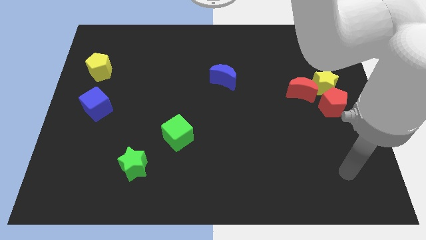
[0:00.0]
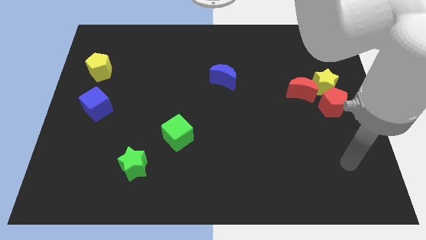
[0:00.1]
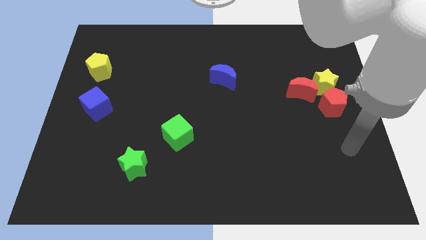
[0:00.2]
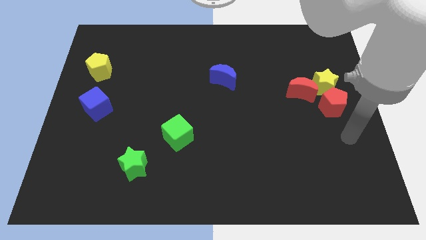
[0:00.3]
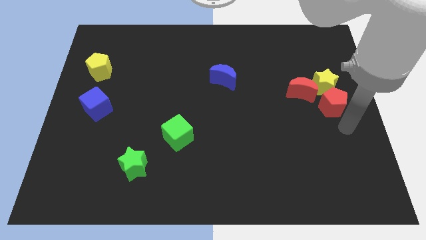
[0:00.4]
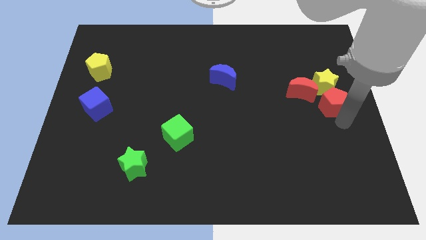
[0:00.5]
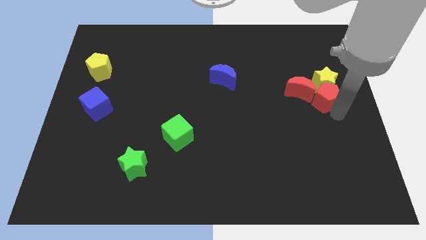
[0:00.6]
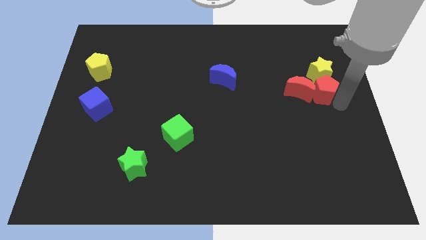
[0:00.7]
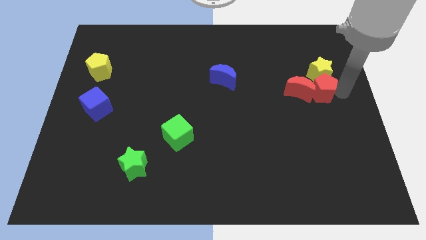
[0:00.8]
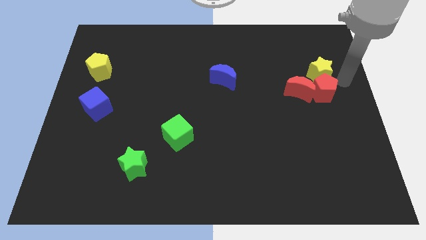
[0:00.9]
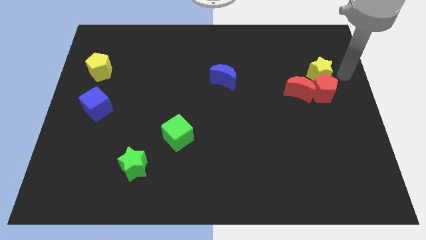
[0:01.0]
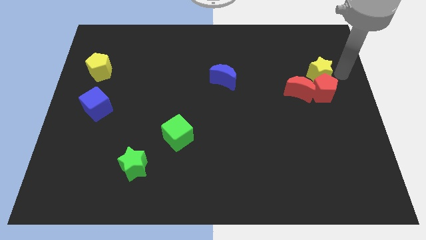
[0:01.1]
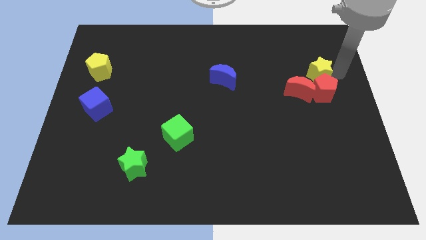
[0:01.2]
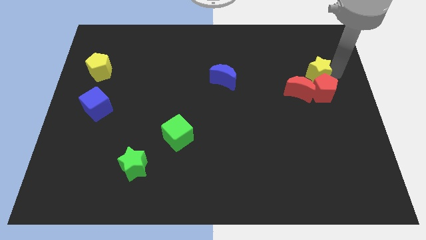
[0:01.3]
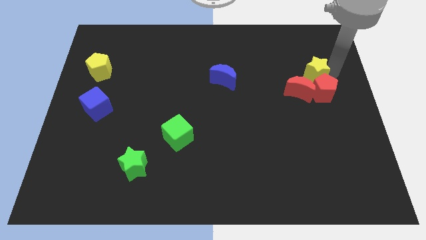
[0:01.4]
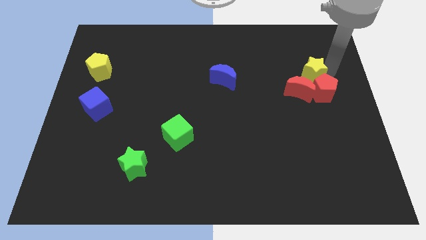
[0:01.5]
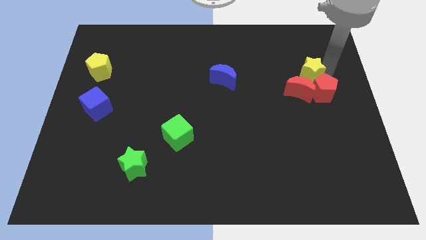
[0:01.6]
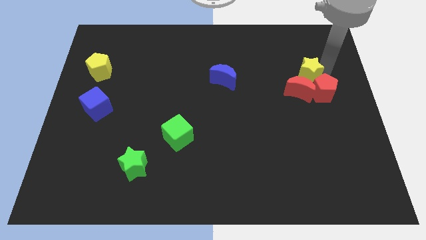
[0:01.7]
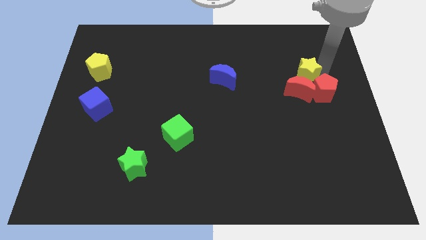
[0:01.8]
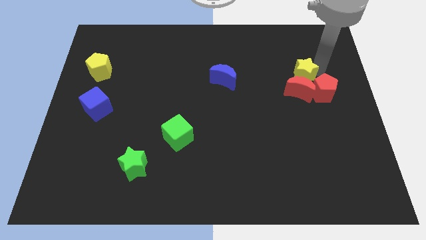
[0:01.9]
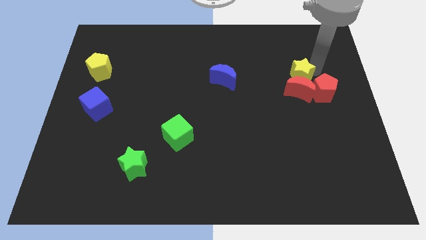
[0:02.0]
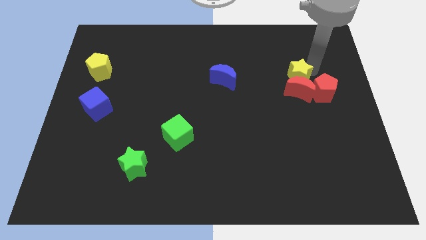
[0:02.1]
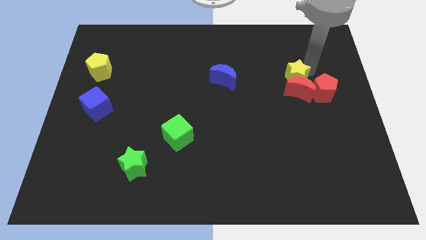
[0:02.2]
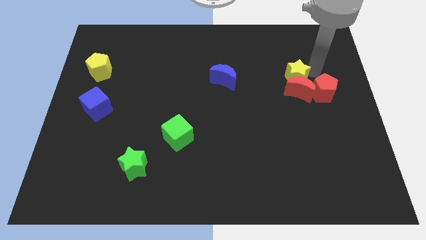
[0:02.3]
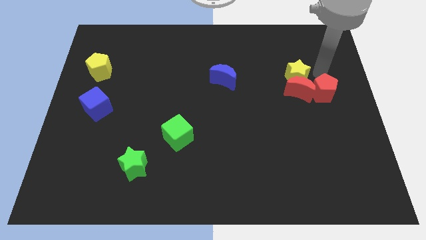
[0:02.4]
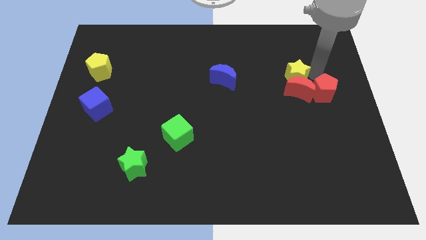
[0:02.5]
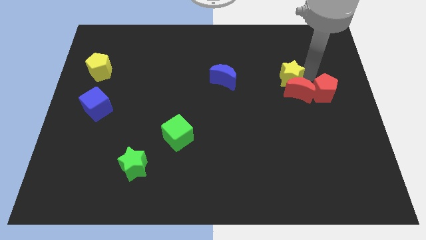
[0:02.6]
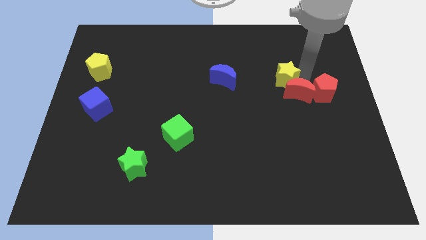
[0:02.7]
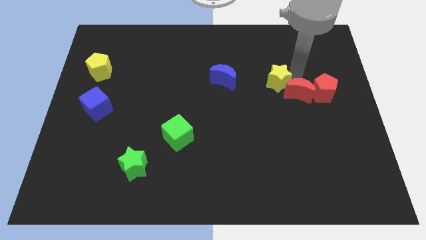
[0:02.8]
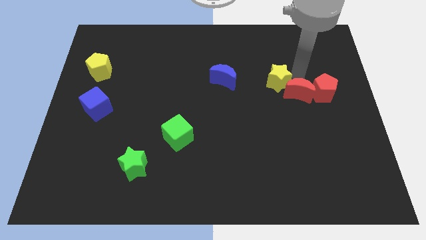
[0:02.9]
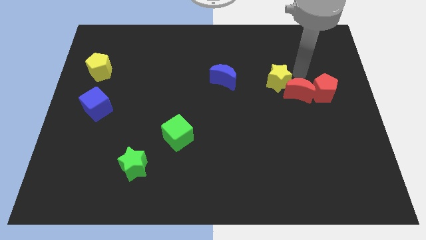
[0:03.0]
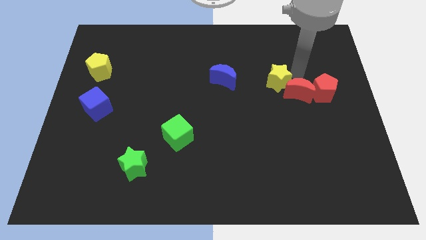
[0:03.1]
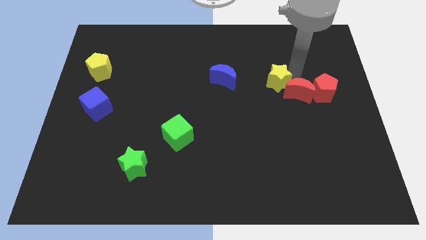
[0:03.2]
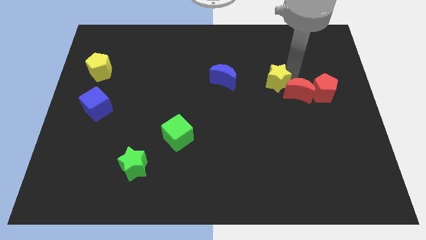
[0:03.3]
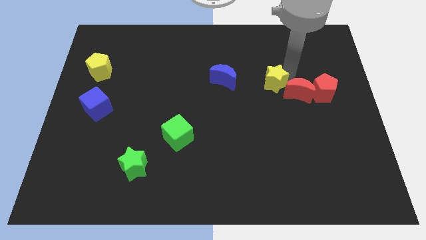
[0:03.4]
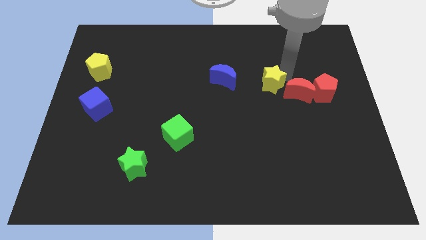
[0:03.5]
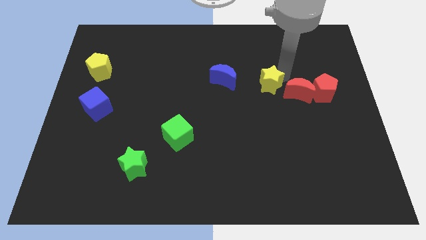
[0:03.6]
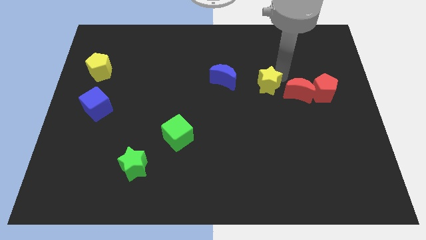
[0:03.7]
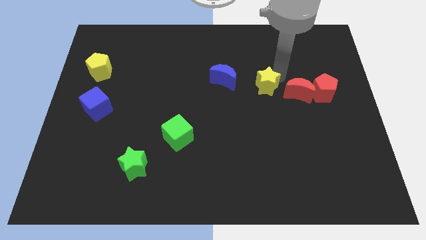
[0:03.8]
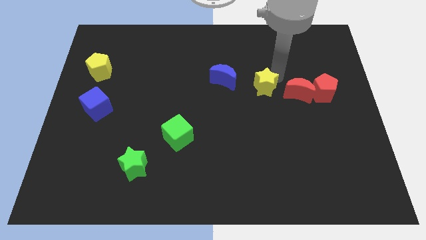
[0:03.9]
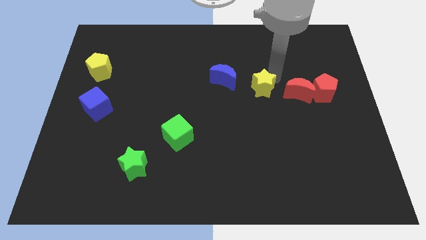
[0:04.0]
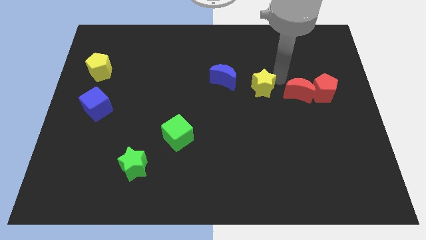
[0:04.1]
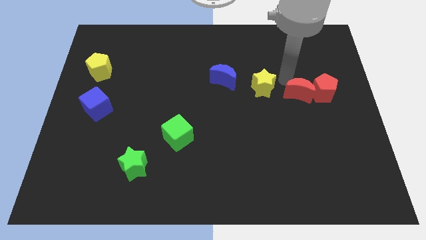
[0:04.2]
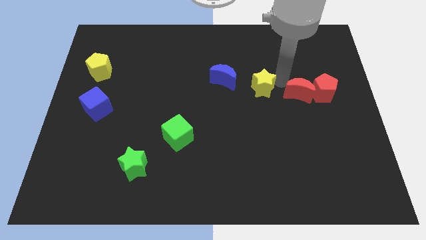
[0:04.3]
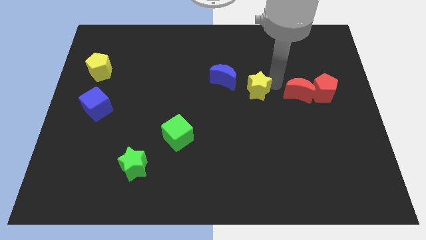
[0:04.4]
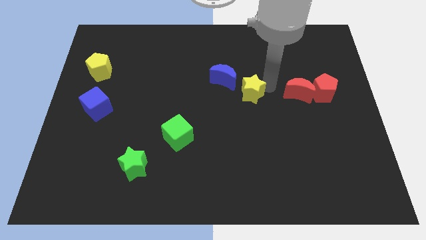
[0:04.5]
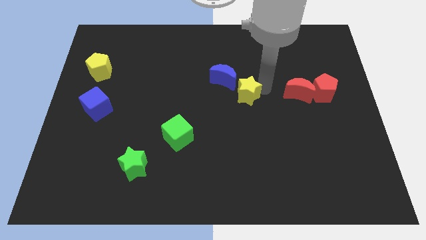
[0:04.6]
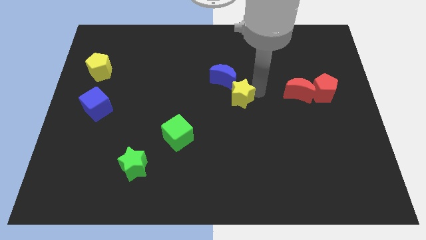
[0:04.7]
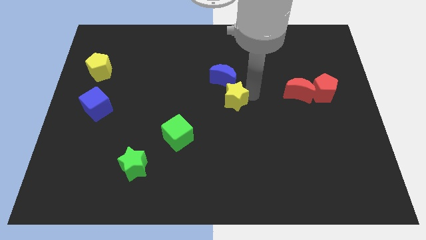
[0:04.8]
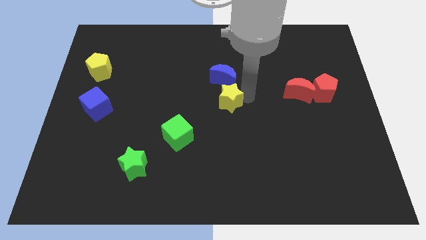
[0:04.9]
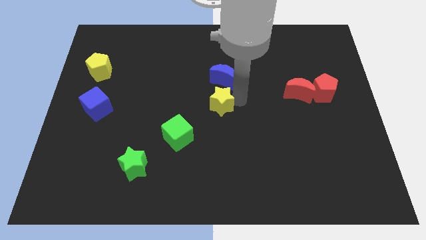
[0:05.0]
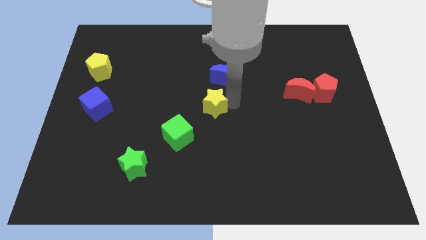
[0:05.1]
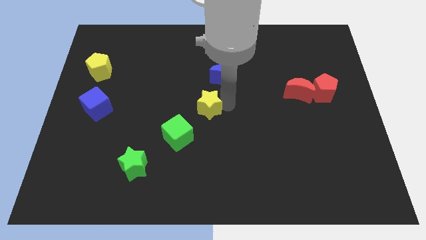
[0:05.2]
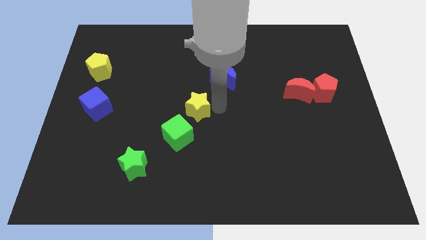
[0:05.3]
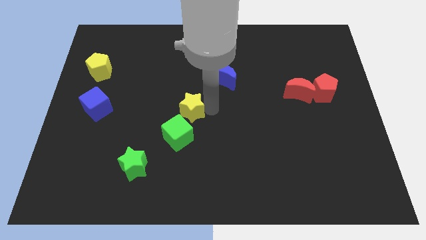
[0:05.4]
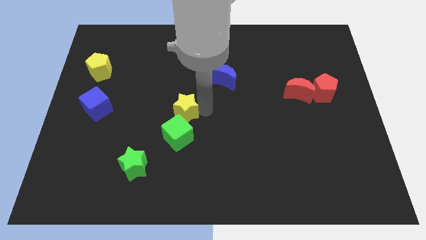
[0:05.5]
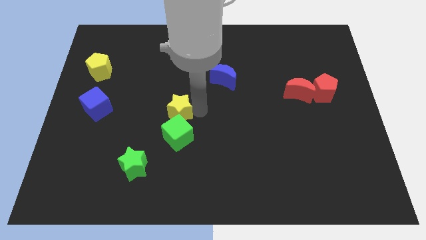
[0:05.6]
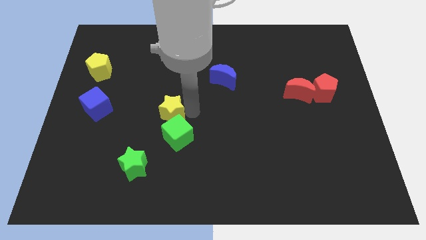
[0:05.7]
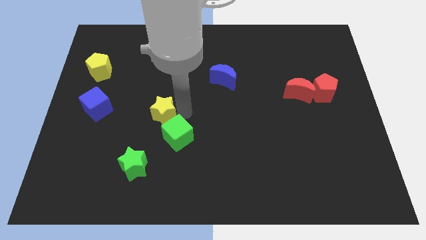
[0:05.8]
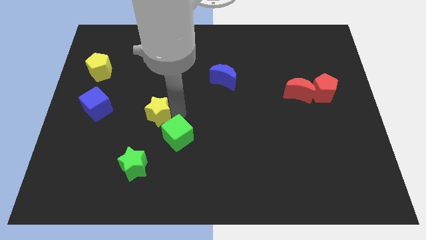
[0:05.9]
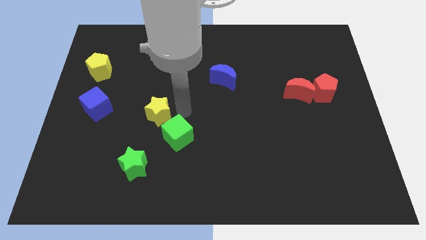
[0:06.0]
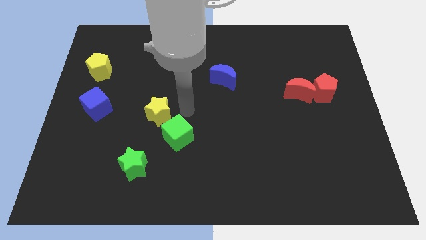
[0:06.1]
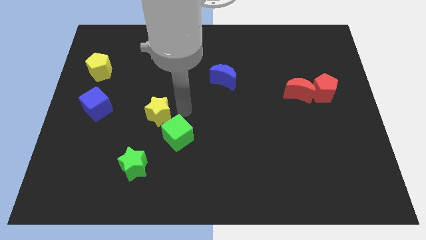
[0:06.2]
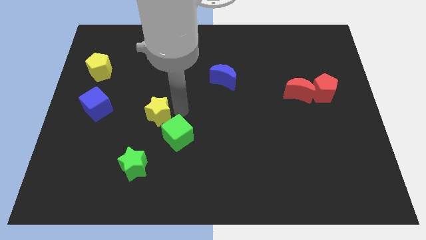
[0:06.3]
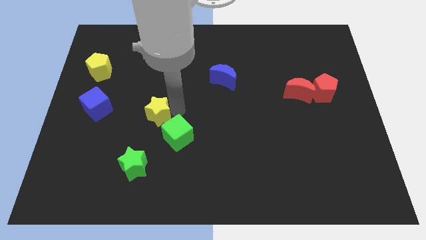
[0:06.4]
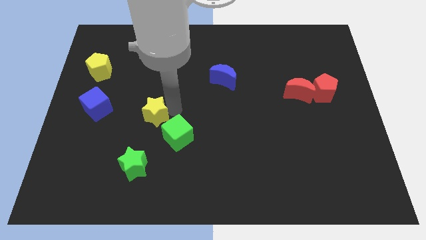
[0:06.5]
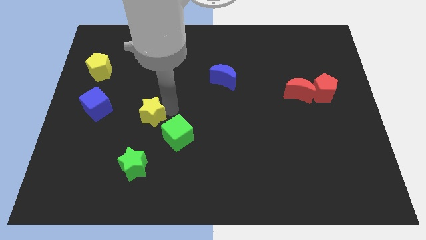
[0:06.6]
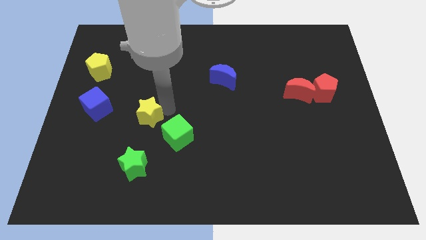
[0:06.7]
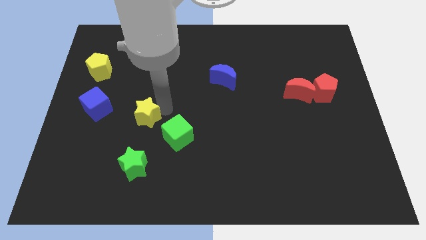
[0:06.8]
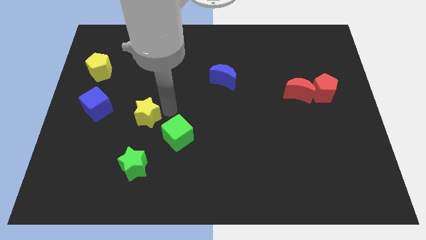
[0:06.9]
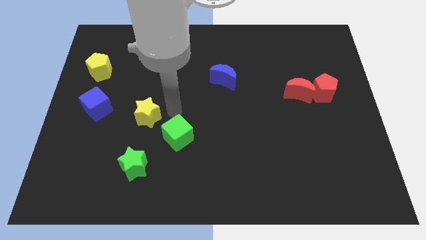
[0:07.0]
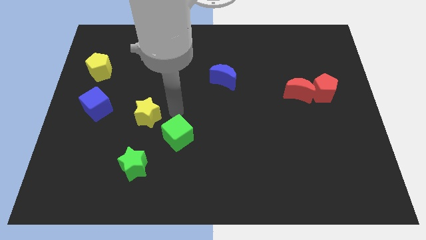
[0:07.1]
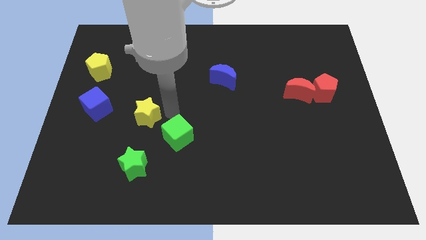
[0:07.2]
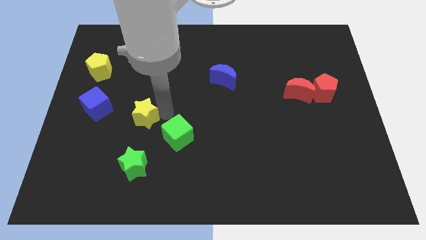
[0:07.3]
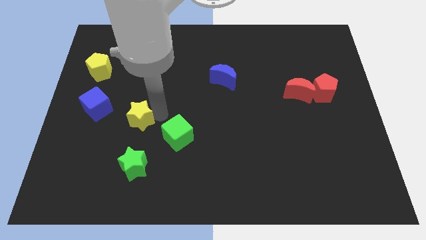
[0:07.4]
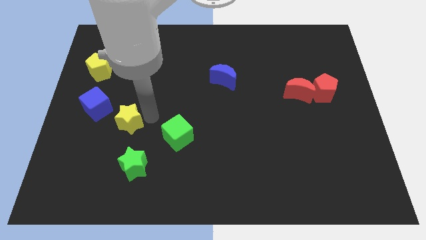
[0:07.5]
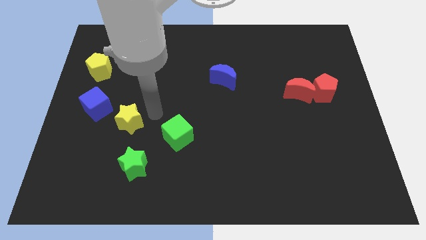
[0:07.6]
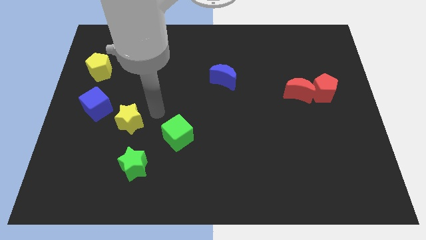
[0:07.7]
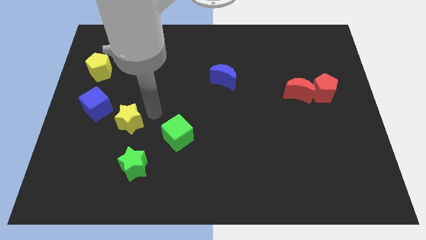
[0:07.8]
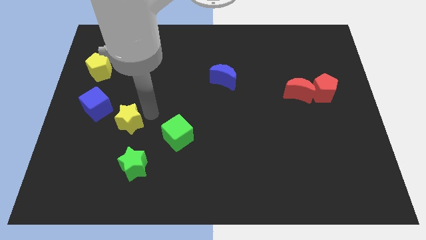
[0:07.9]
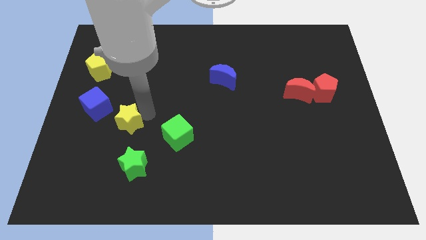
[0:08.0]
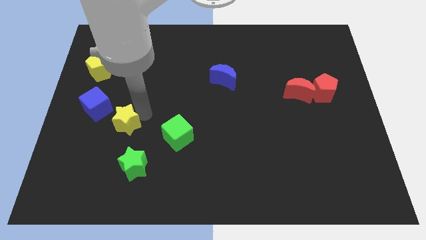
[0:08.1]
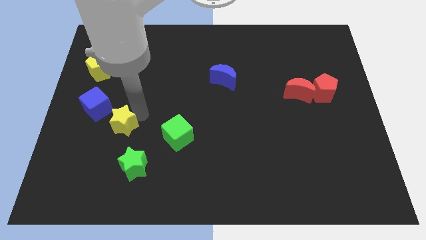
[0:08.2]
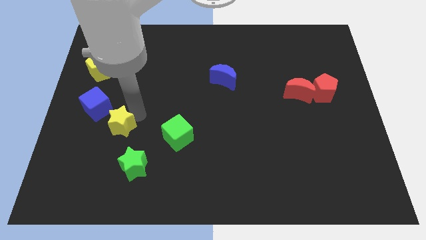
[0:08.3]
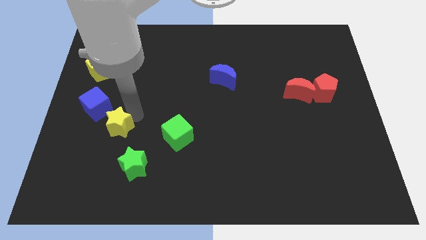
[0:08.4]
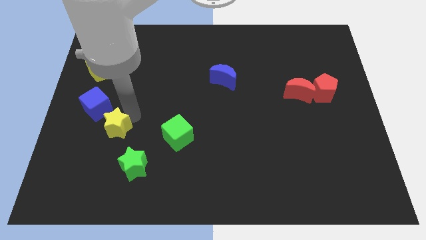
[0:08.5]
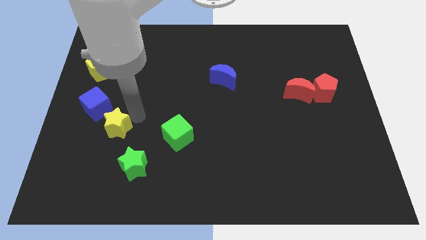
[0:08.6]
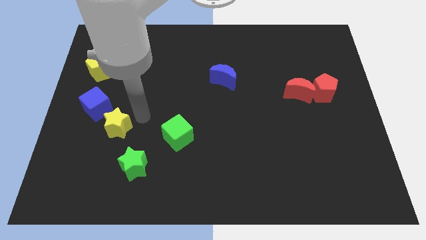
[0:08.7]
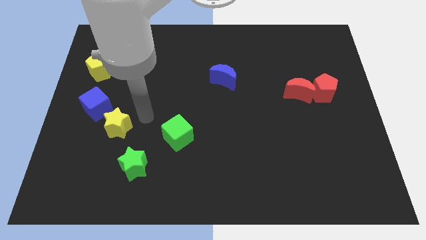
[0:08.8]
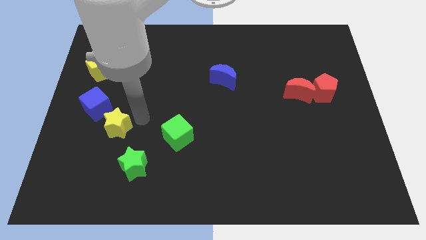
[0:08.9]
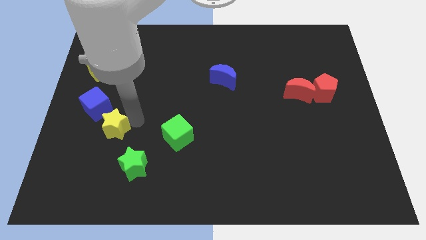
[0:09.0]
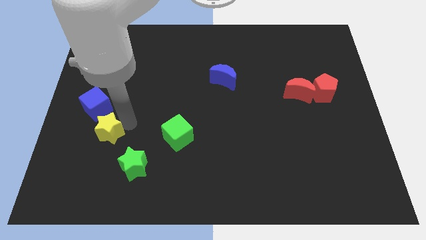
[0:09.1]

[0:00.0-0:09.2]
slide the yellow star below the blue cube
